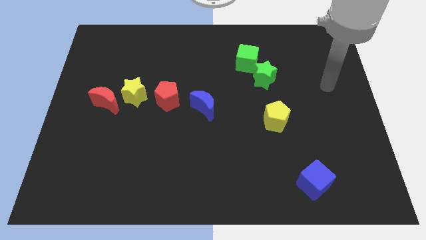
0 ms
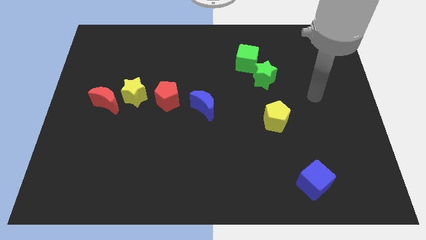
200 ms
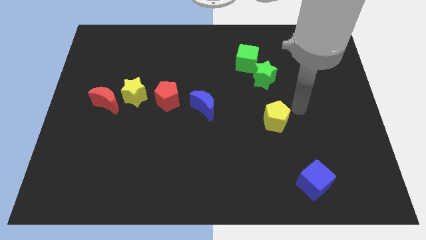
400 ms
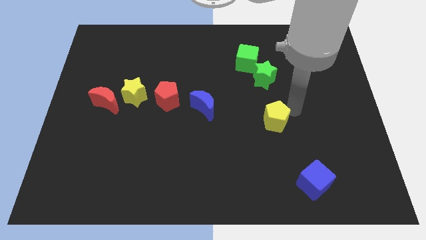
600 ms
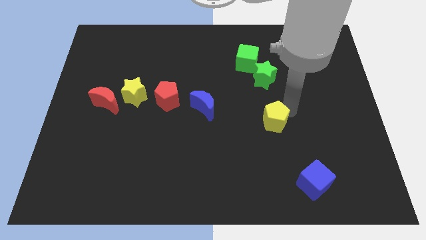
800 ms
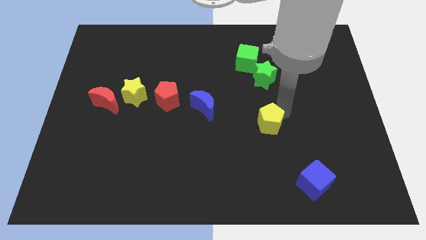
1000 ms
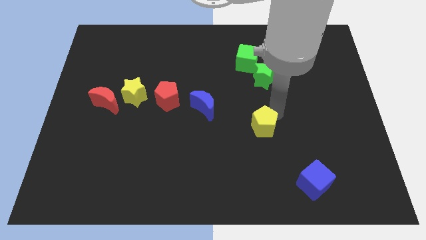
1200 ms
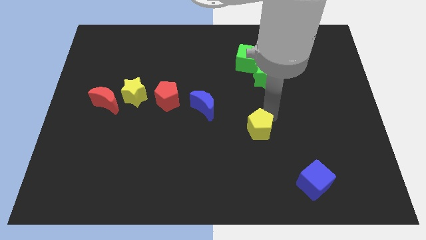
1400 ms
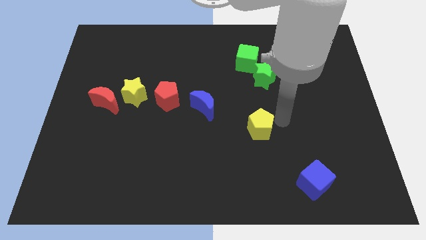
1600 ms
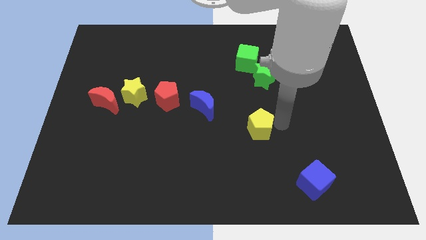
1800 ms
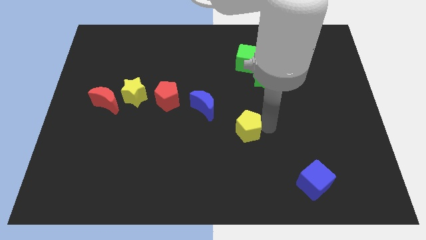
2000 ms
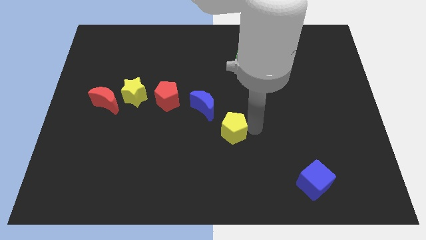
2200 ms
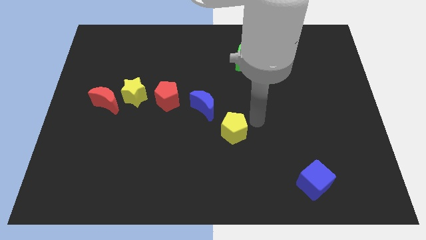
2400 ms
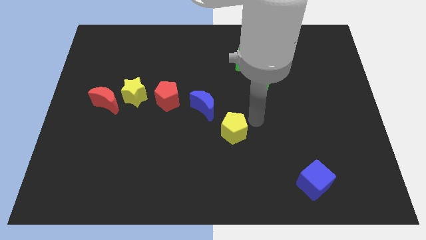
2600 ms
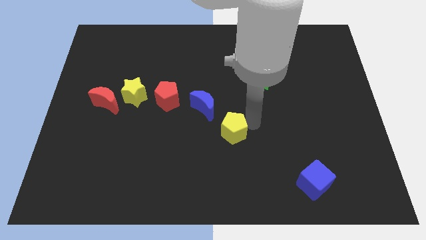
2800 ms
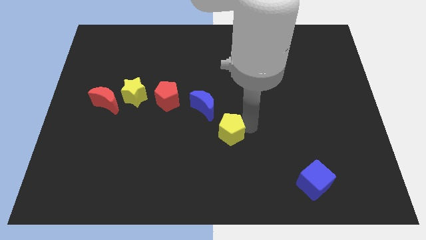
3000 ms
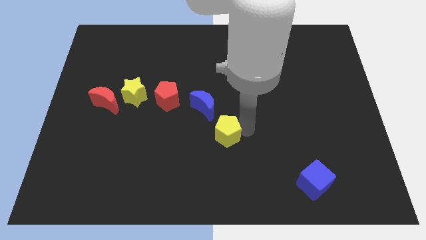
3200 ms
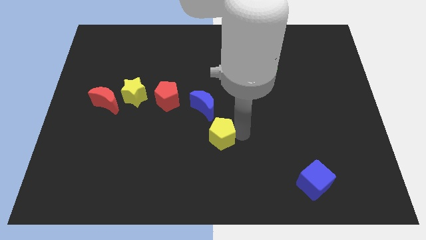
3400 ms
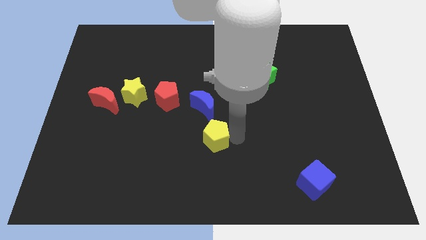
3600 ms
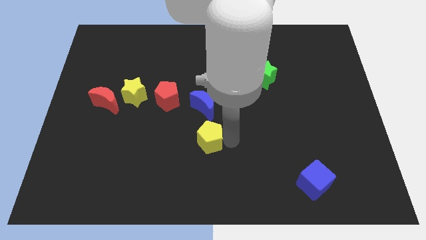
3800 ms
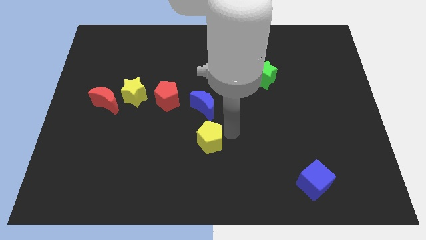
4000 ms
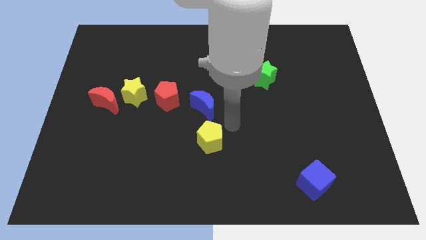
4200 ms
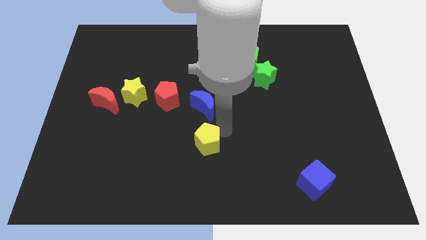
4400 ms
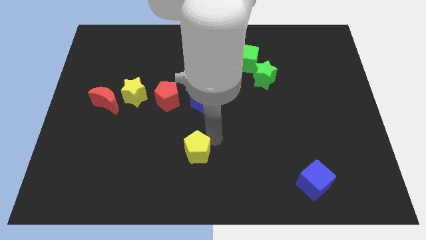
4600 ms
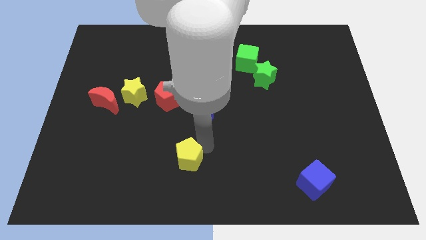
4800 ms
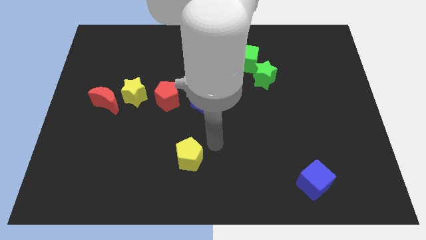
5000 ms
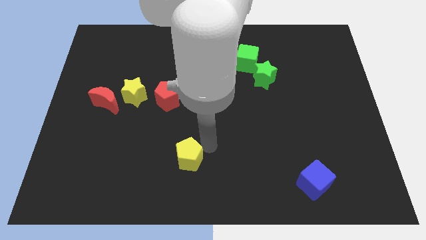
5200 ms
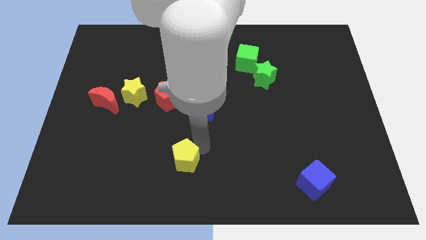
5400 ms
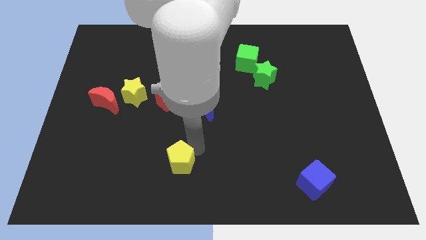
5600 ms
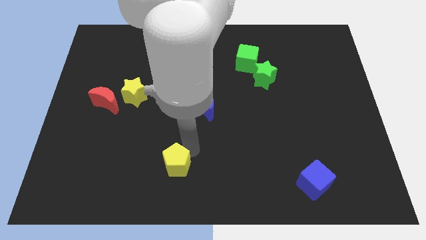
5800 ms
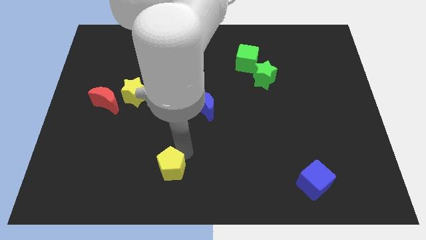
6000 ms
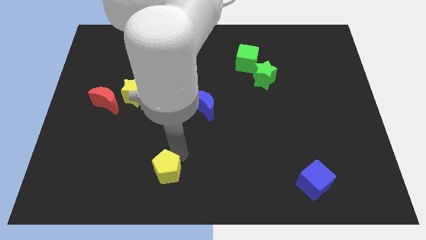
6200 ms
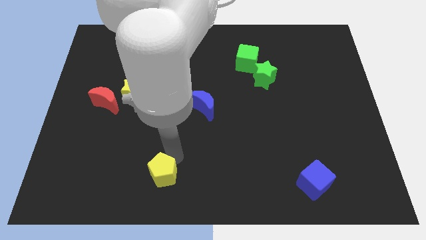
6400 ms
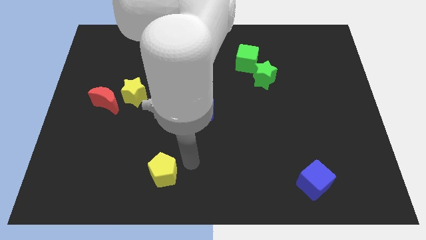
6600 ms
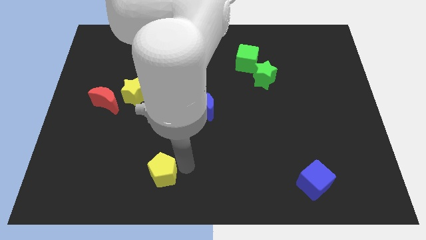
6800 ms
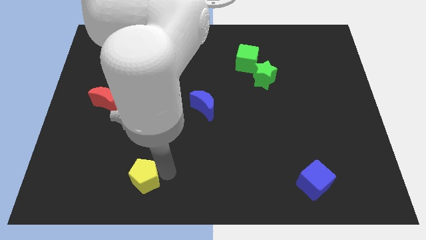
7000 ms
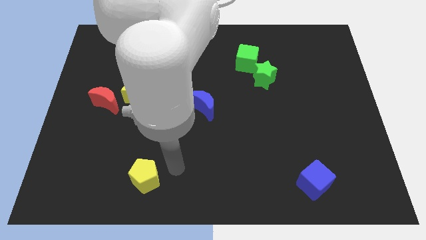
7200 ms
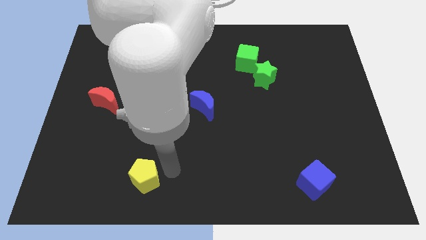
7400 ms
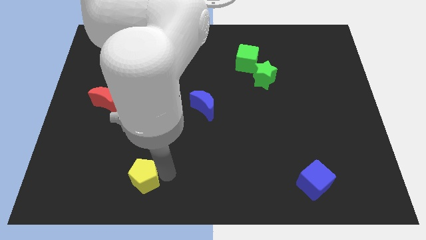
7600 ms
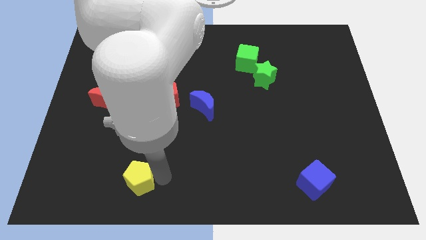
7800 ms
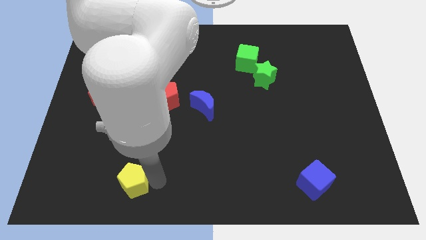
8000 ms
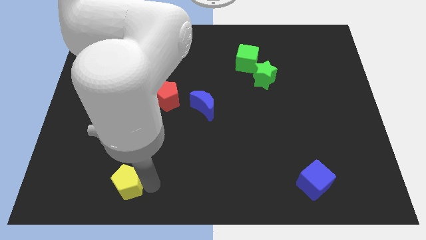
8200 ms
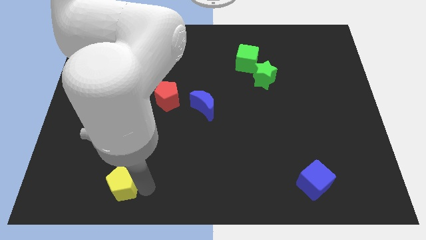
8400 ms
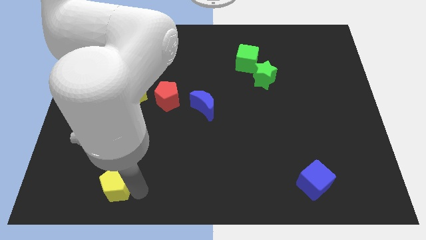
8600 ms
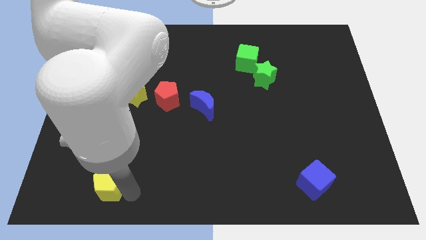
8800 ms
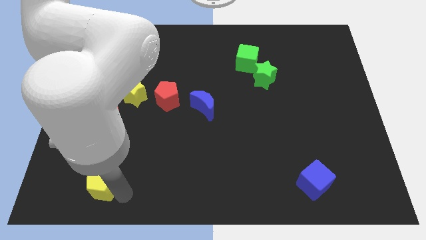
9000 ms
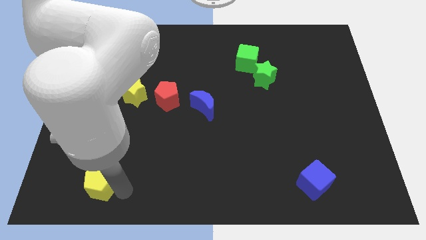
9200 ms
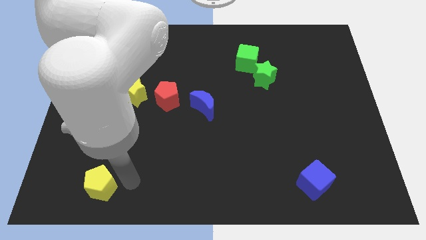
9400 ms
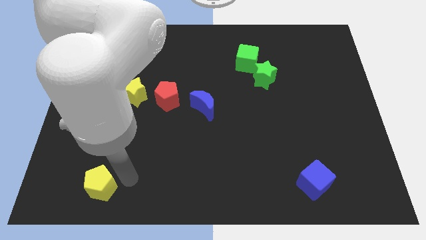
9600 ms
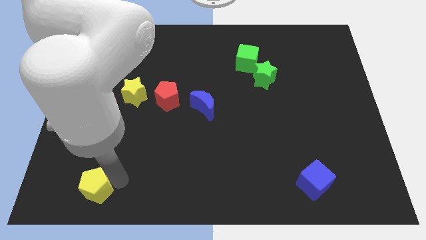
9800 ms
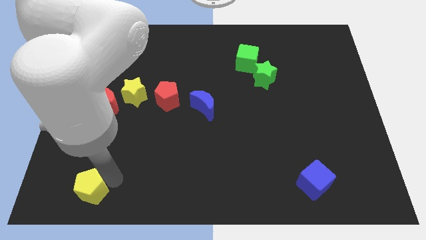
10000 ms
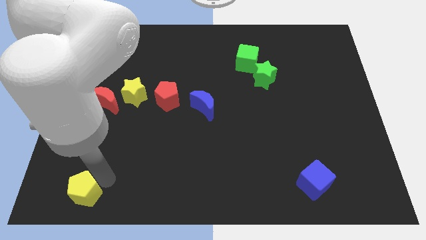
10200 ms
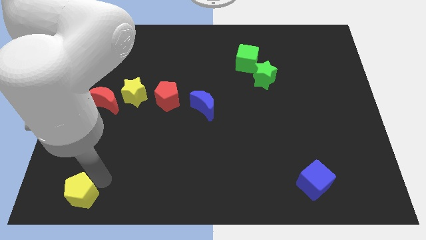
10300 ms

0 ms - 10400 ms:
put the yellow pentagon to the lower left corner

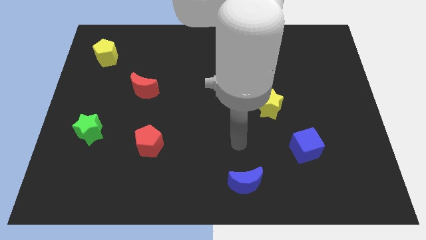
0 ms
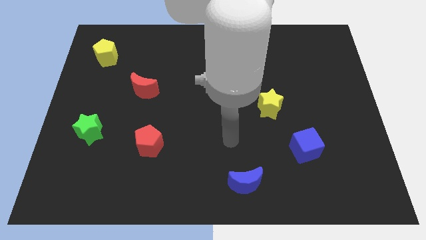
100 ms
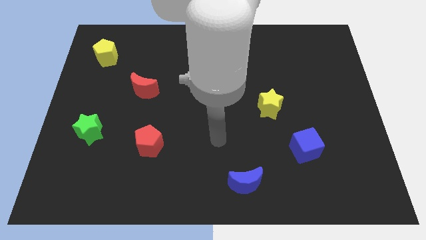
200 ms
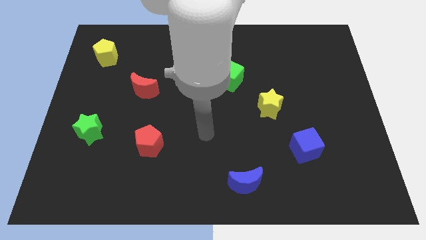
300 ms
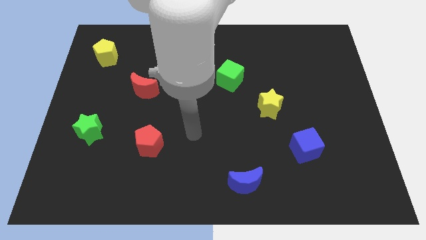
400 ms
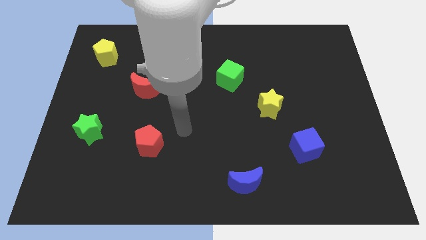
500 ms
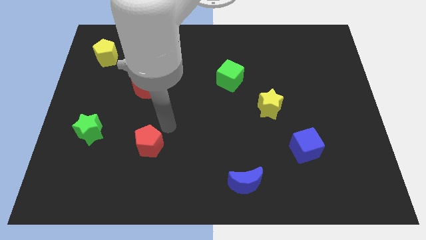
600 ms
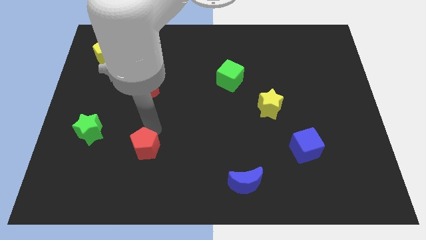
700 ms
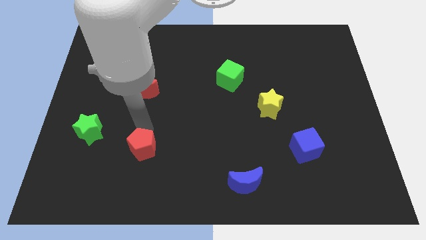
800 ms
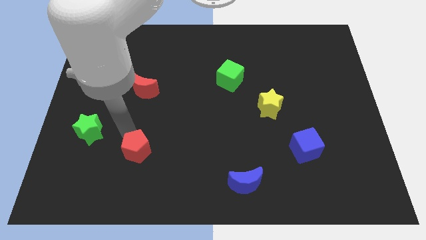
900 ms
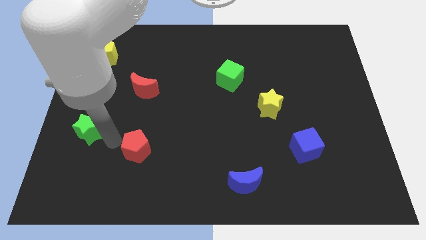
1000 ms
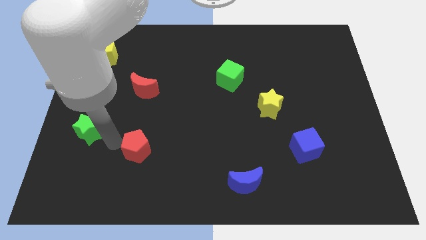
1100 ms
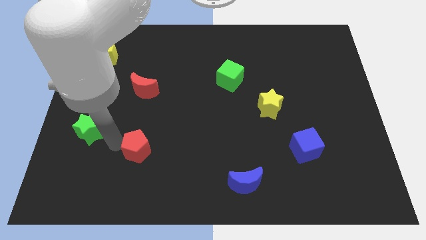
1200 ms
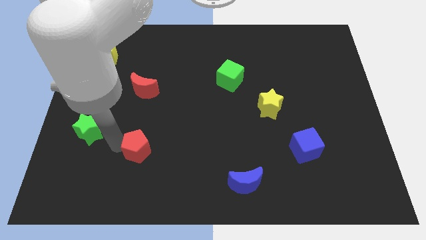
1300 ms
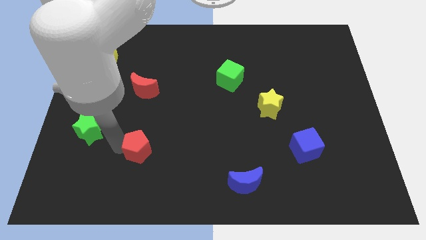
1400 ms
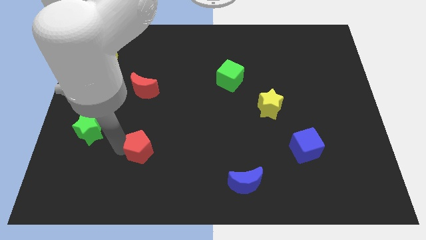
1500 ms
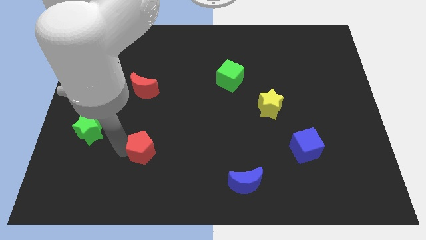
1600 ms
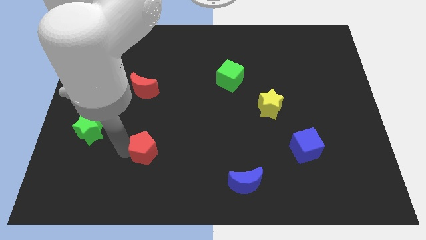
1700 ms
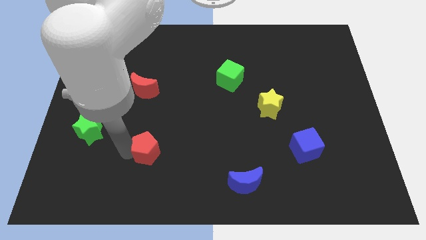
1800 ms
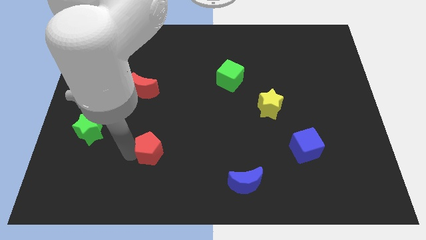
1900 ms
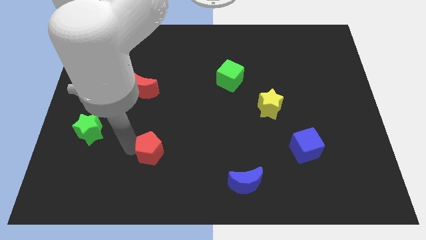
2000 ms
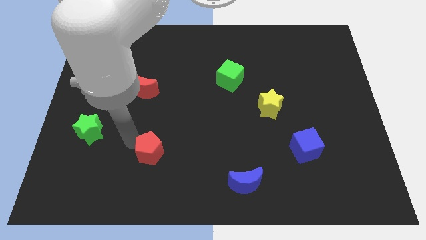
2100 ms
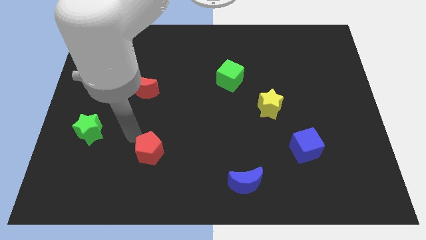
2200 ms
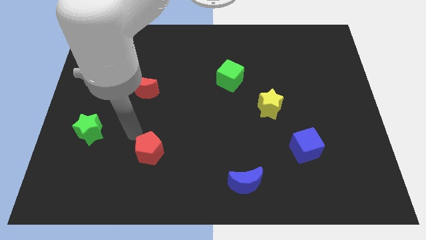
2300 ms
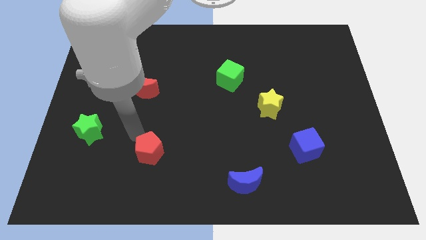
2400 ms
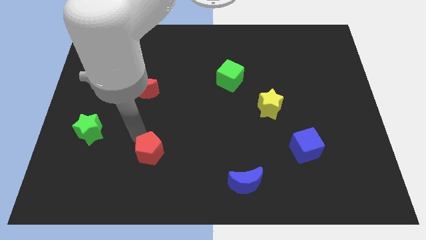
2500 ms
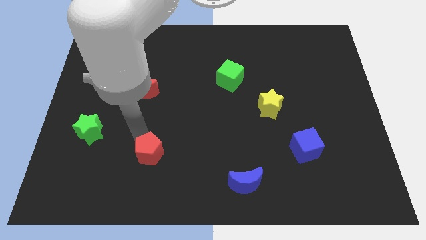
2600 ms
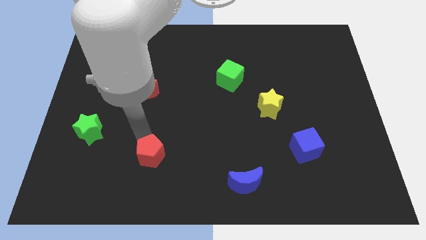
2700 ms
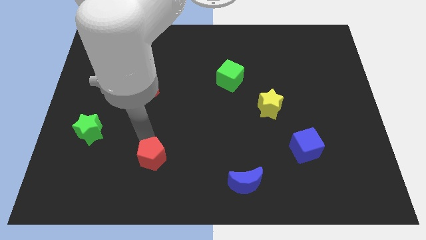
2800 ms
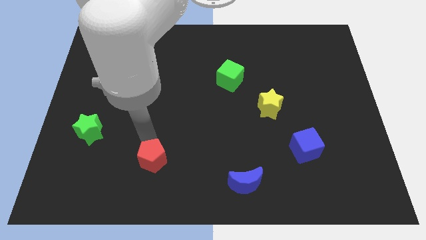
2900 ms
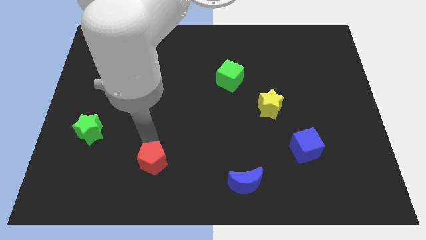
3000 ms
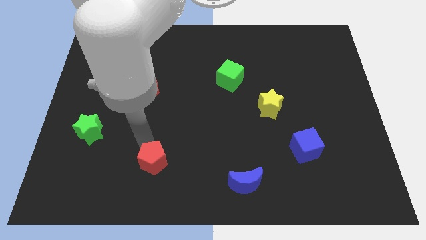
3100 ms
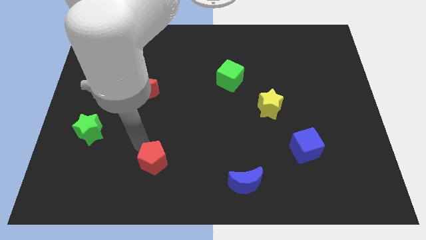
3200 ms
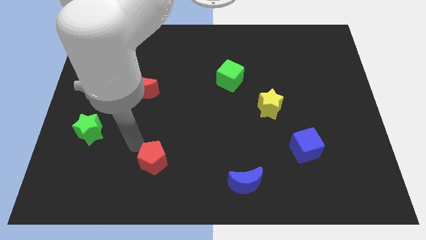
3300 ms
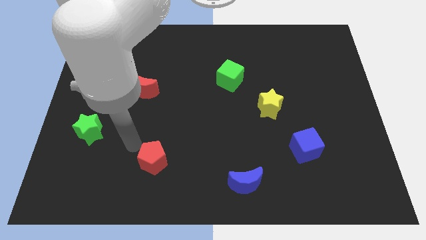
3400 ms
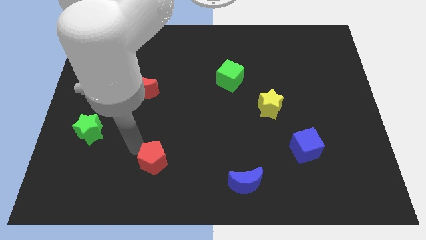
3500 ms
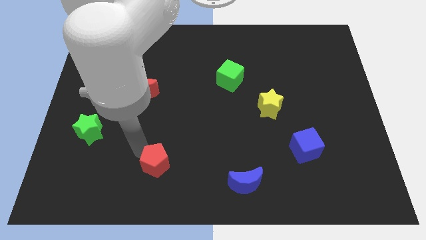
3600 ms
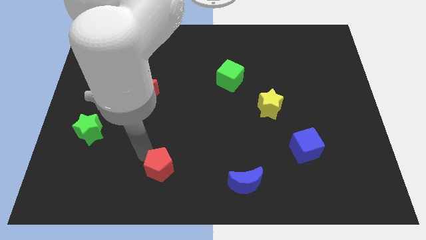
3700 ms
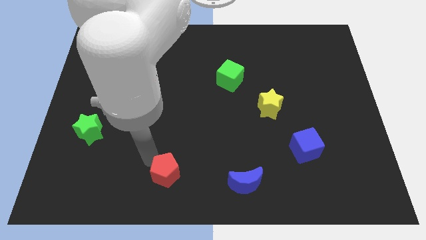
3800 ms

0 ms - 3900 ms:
move the red pentagon to the bottom
